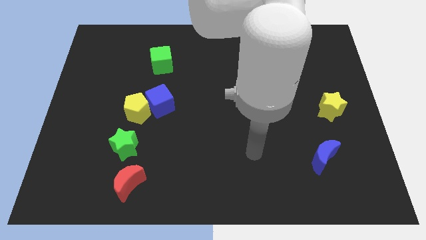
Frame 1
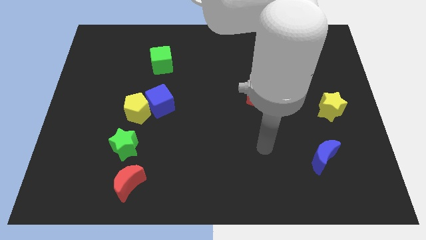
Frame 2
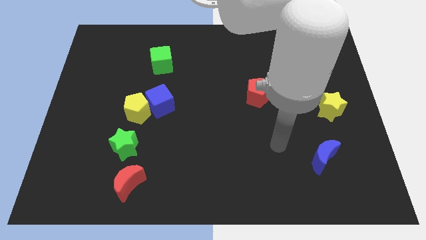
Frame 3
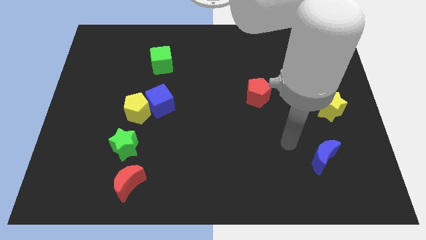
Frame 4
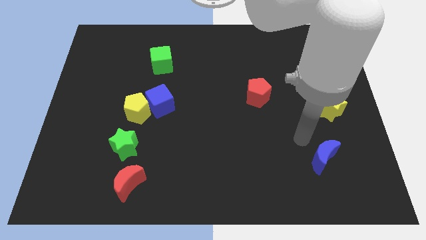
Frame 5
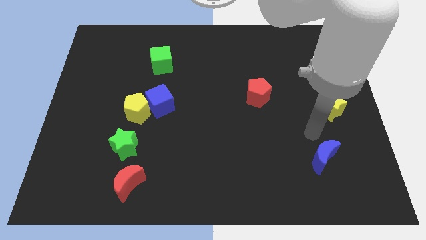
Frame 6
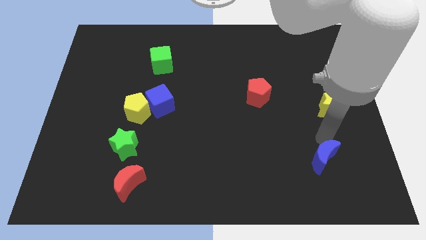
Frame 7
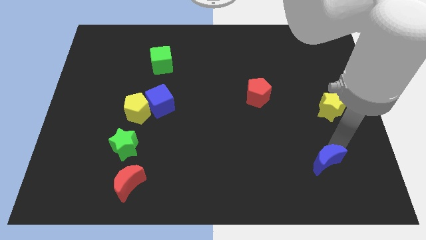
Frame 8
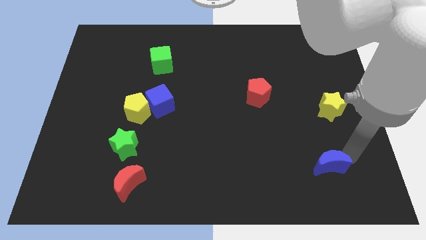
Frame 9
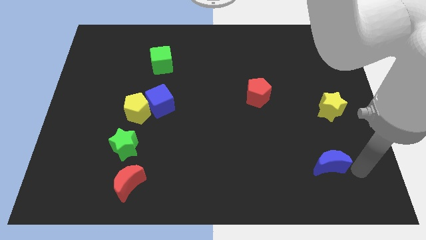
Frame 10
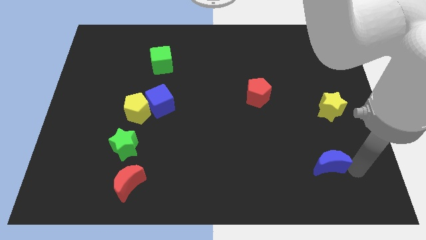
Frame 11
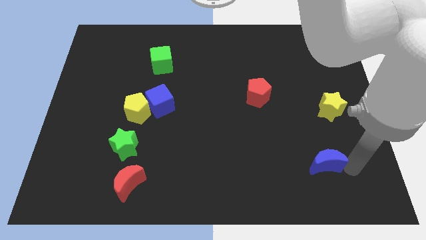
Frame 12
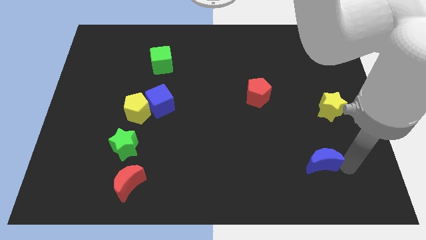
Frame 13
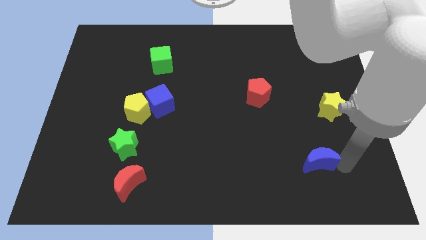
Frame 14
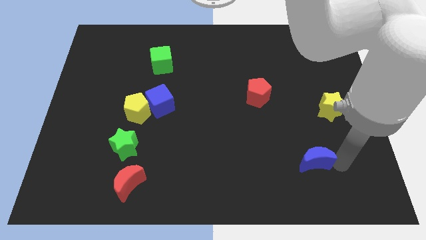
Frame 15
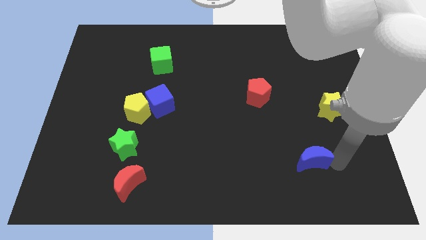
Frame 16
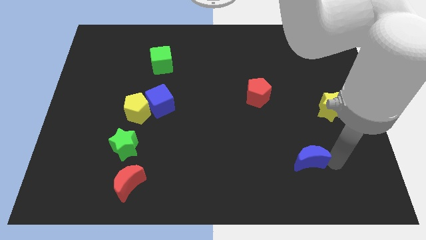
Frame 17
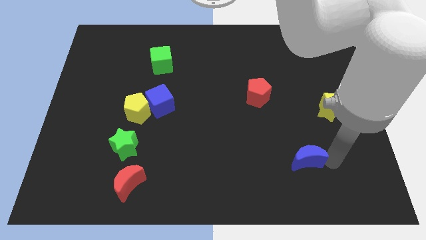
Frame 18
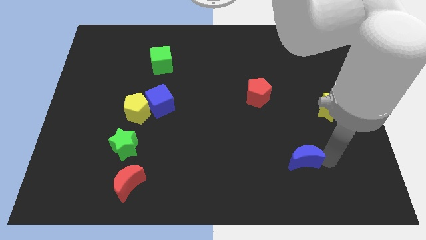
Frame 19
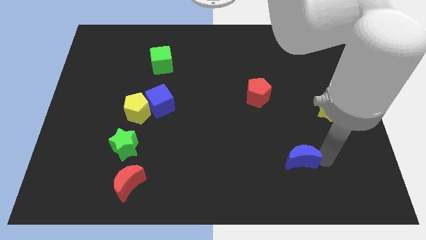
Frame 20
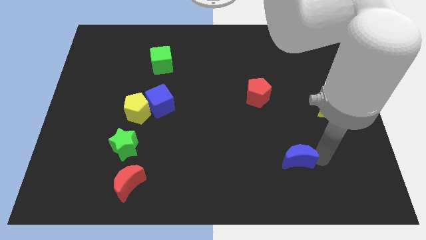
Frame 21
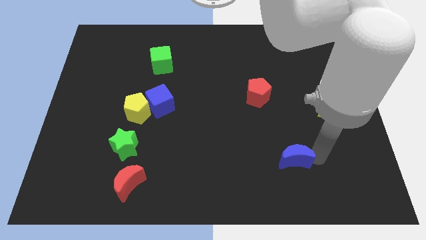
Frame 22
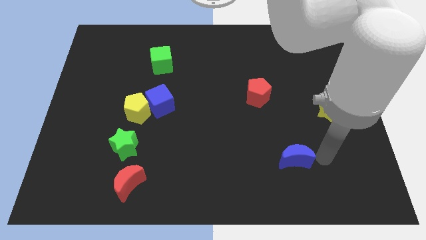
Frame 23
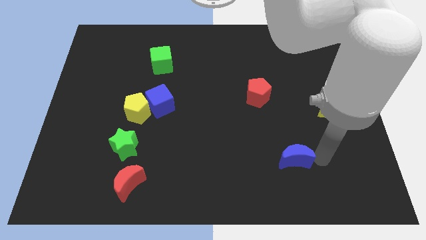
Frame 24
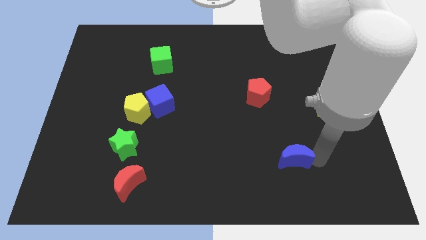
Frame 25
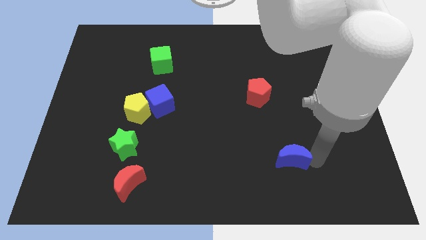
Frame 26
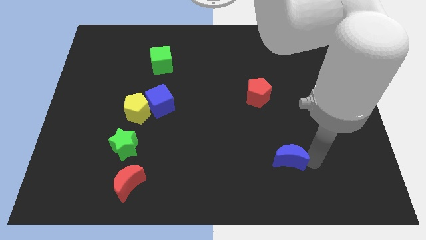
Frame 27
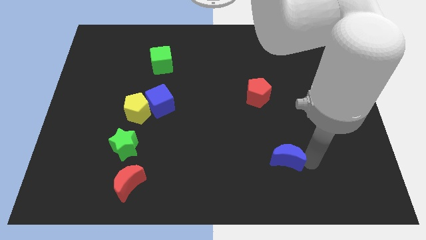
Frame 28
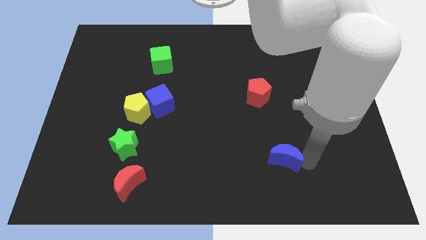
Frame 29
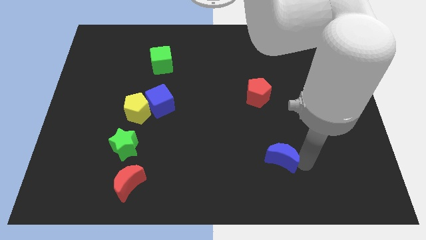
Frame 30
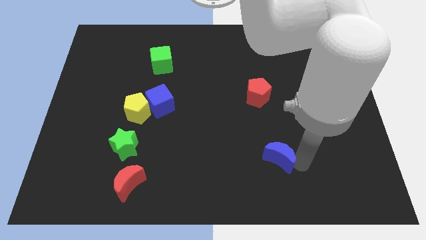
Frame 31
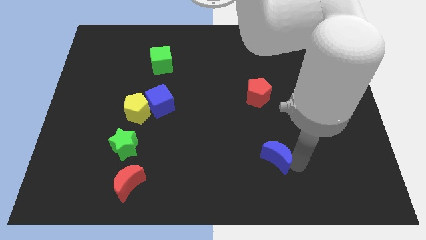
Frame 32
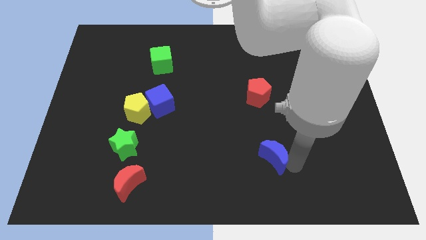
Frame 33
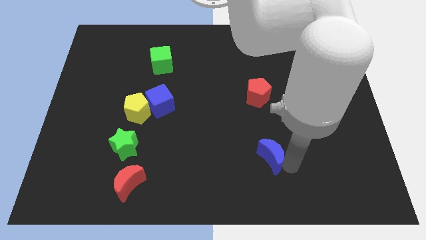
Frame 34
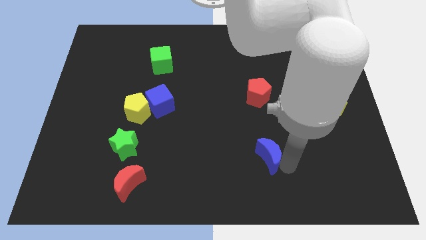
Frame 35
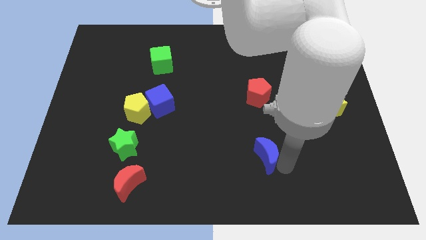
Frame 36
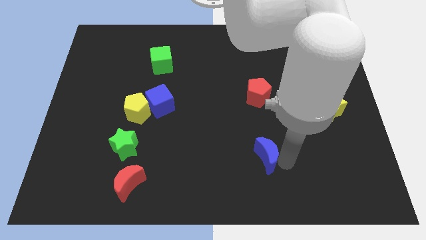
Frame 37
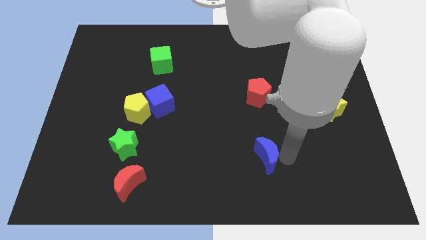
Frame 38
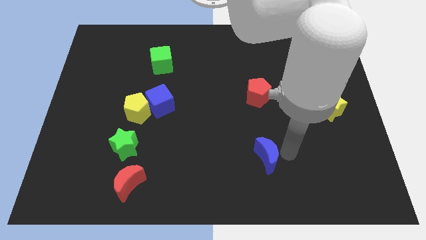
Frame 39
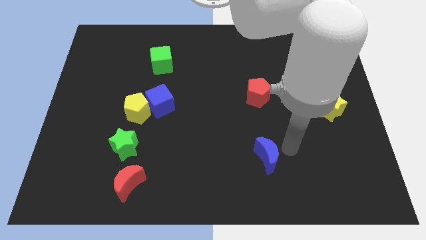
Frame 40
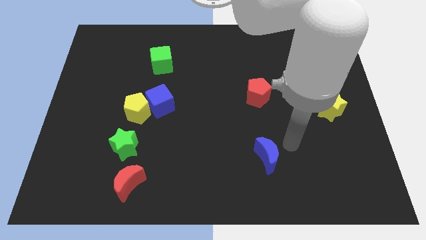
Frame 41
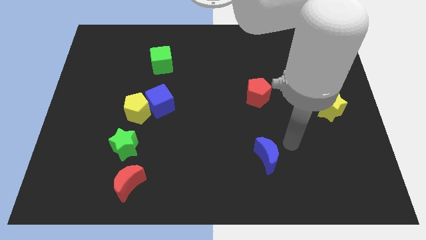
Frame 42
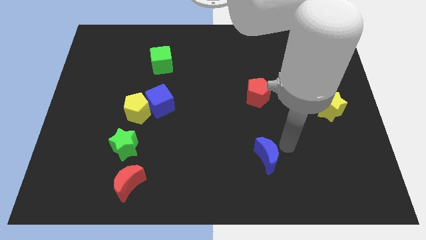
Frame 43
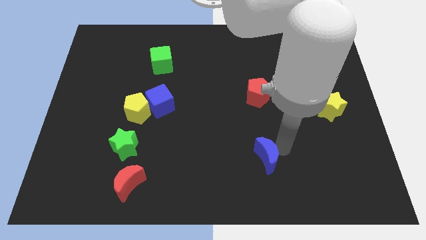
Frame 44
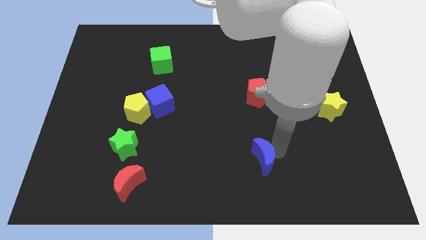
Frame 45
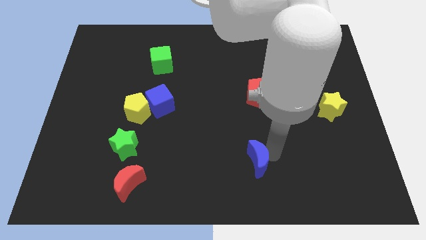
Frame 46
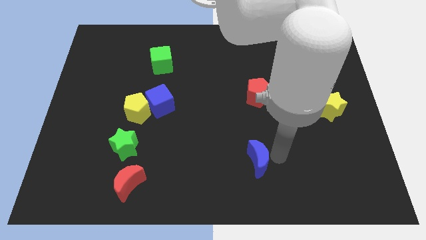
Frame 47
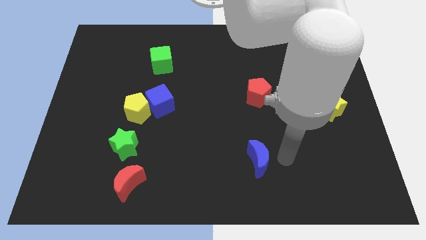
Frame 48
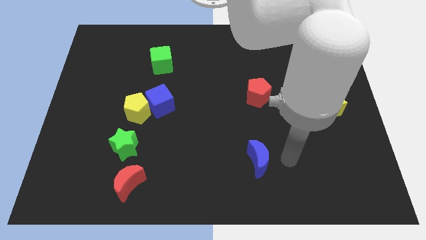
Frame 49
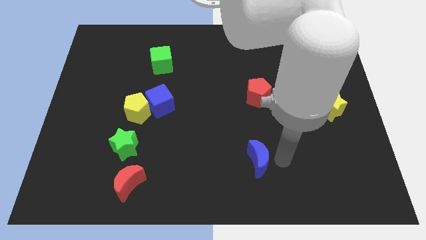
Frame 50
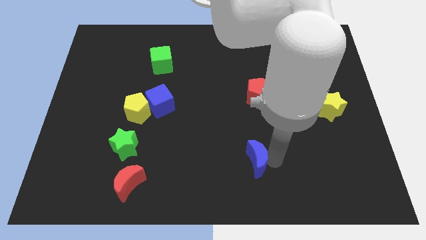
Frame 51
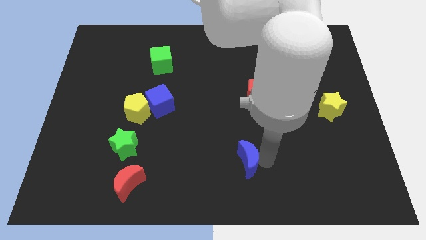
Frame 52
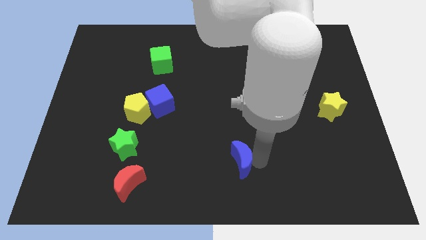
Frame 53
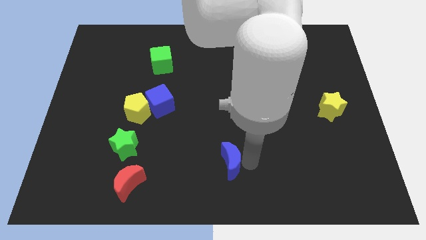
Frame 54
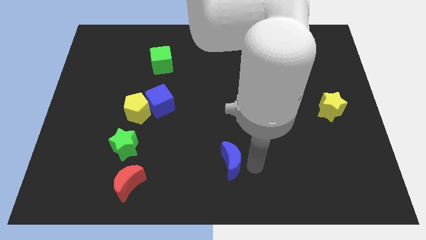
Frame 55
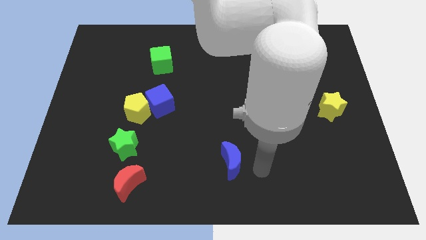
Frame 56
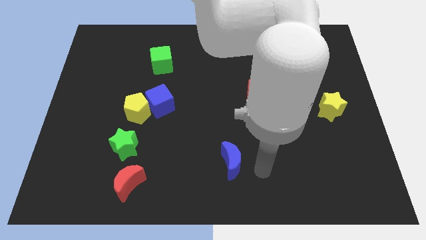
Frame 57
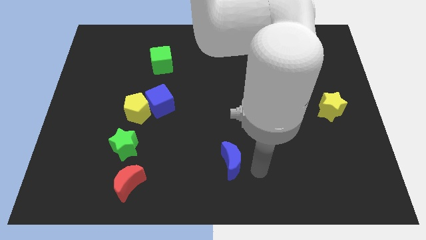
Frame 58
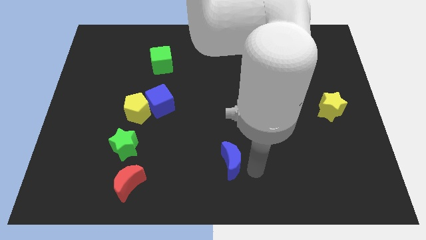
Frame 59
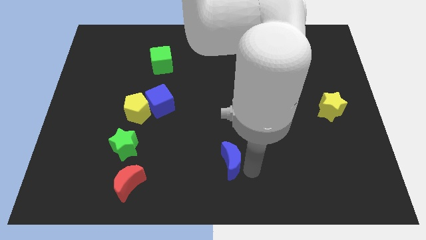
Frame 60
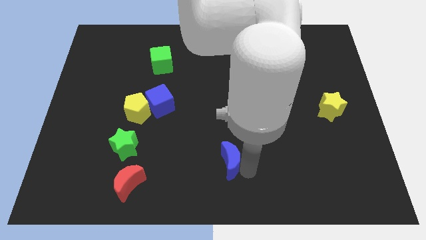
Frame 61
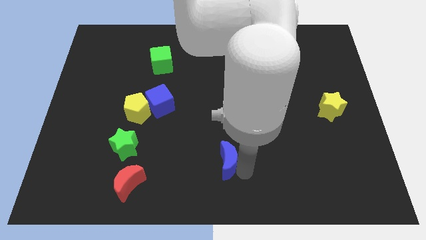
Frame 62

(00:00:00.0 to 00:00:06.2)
slide the blue moon to the left

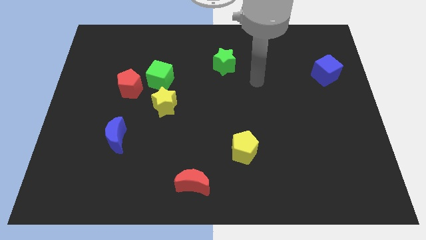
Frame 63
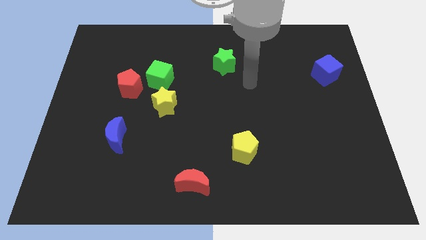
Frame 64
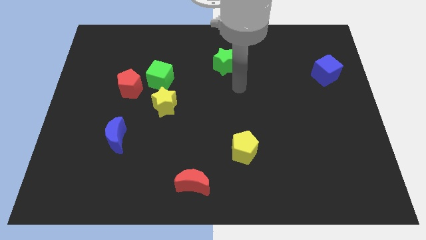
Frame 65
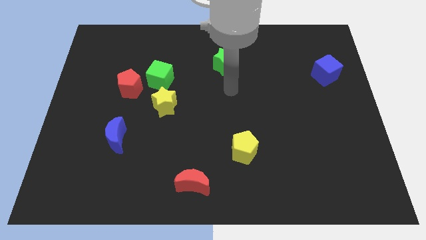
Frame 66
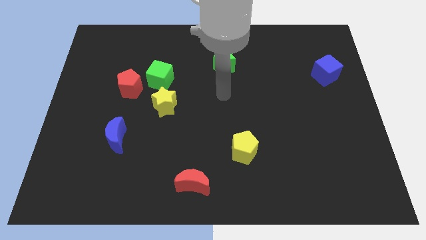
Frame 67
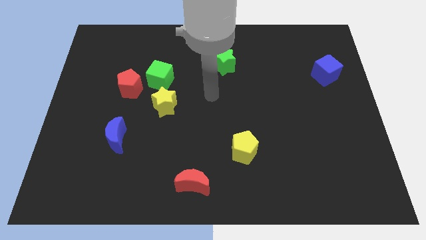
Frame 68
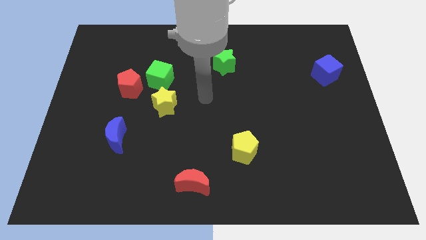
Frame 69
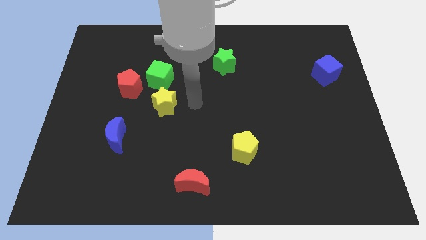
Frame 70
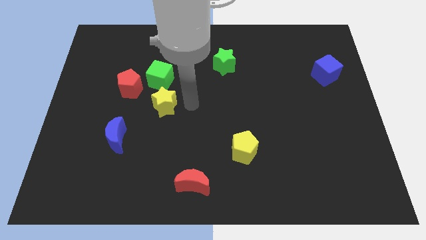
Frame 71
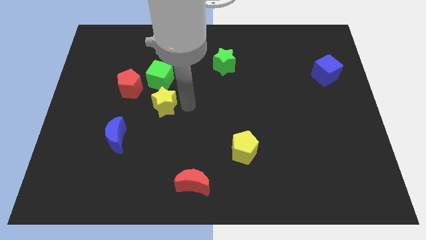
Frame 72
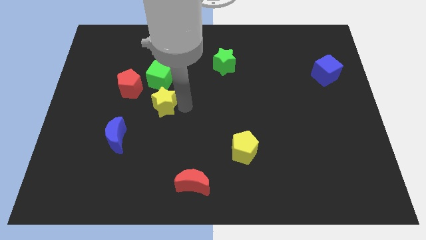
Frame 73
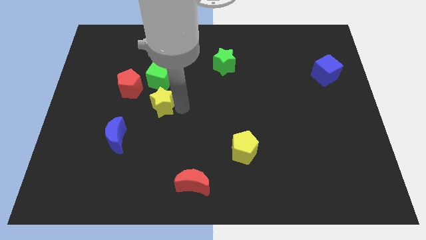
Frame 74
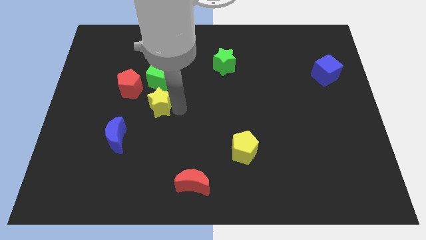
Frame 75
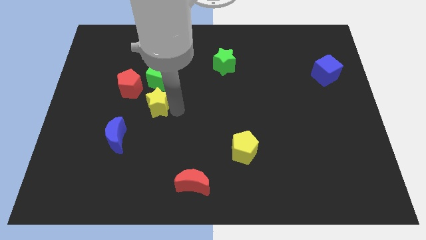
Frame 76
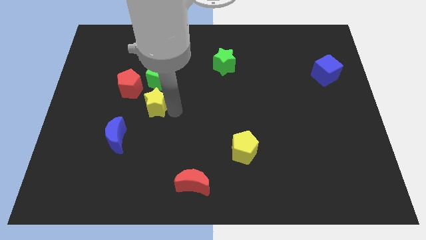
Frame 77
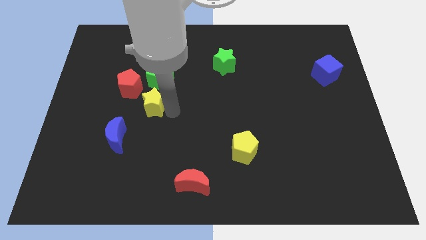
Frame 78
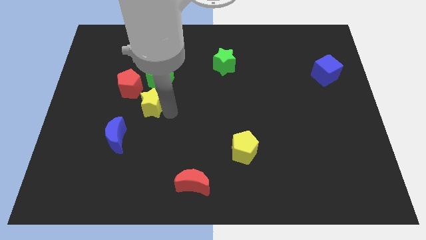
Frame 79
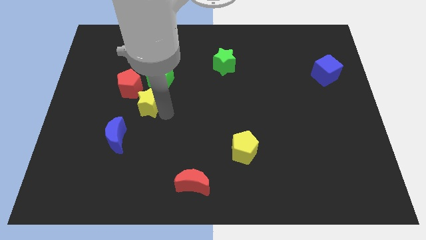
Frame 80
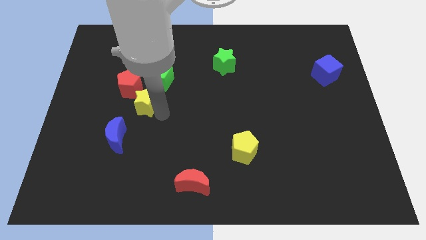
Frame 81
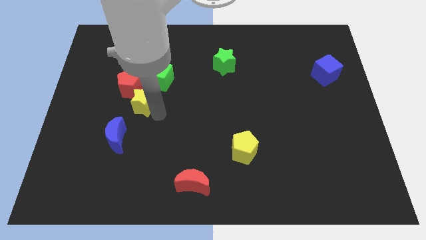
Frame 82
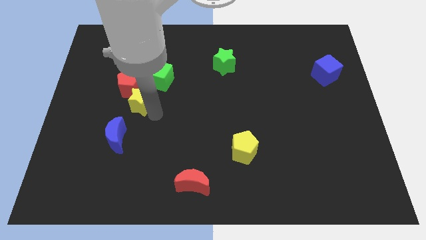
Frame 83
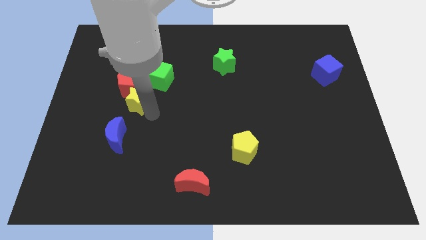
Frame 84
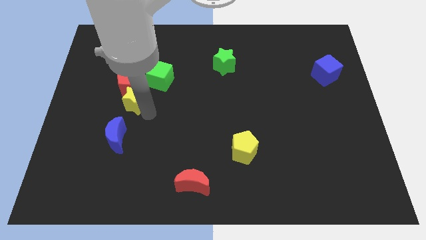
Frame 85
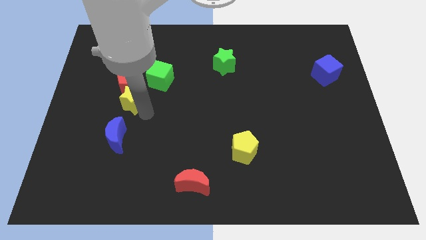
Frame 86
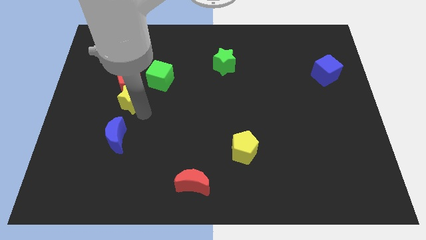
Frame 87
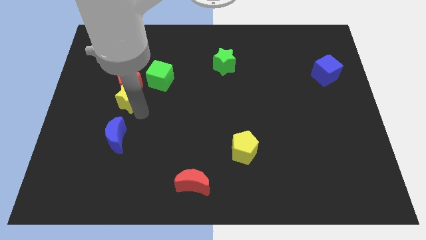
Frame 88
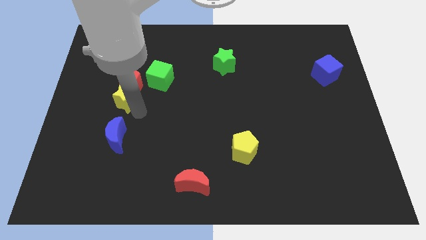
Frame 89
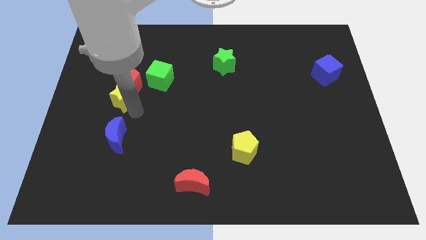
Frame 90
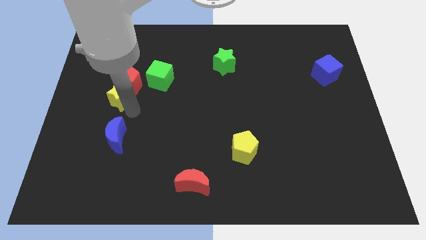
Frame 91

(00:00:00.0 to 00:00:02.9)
move the yellow star a bit diagonally up and to the left
